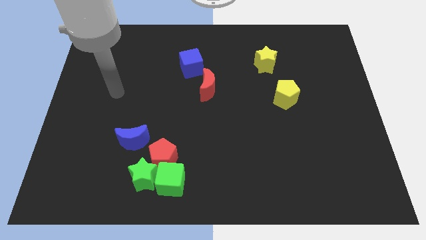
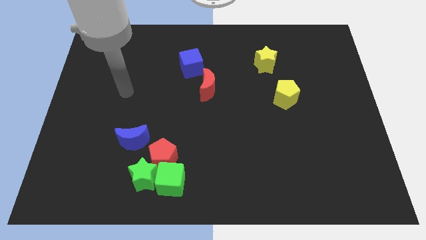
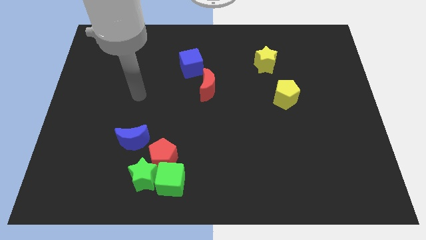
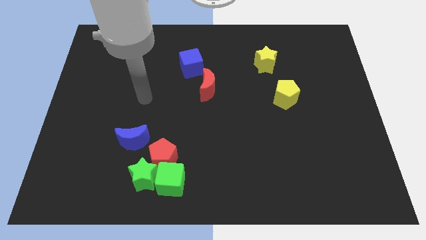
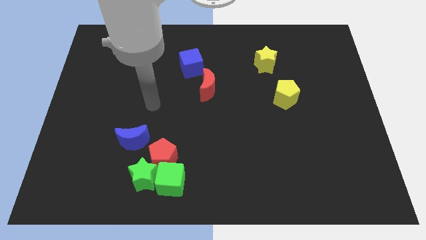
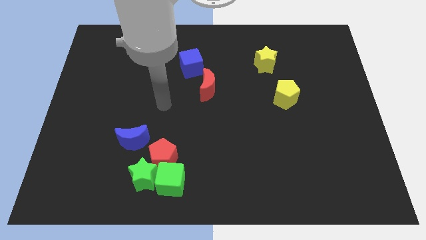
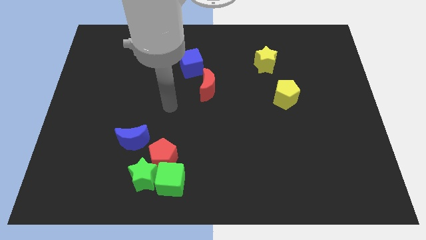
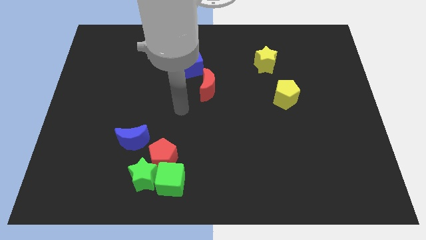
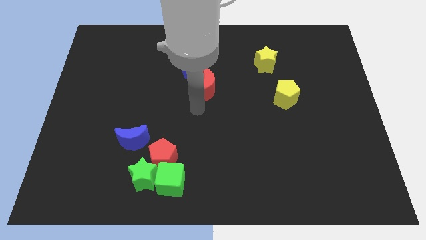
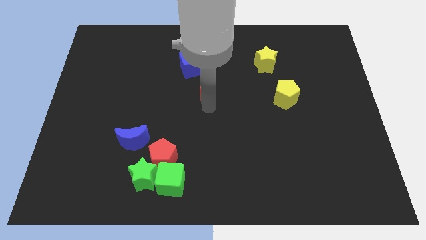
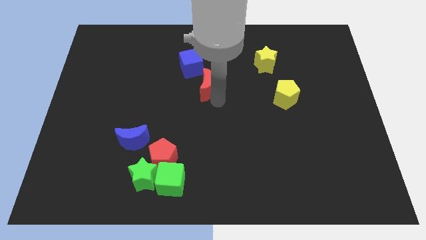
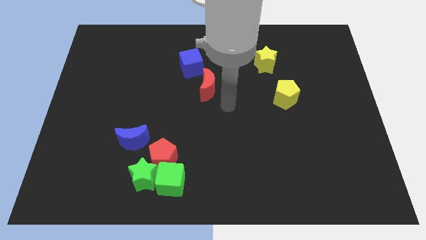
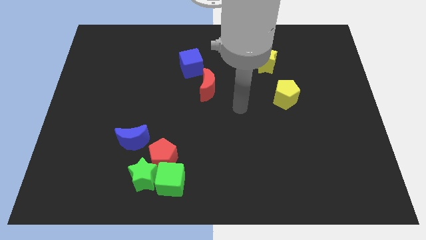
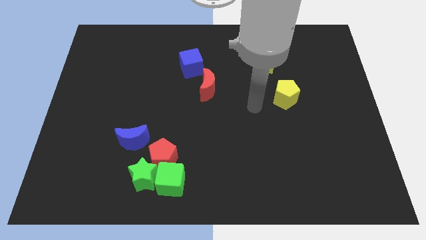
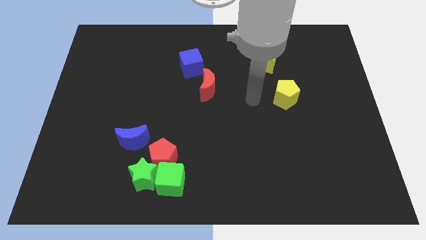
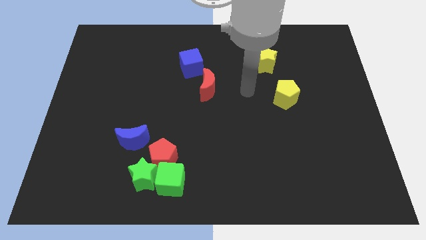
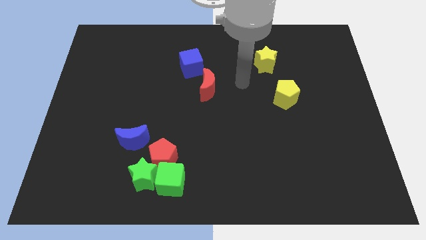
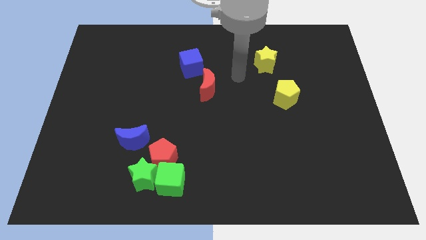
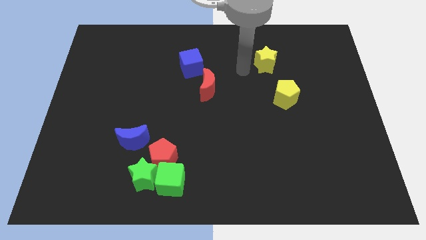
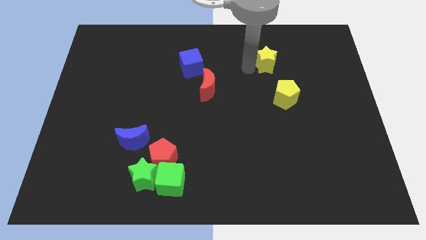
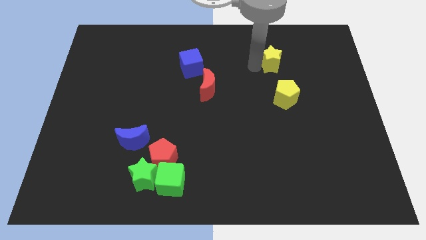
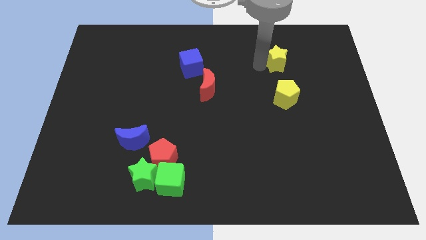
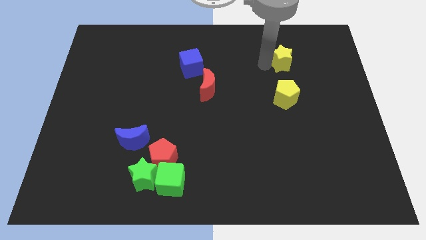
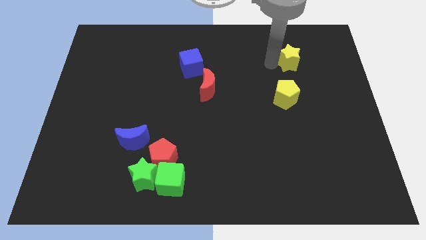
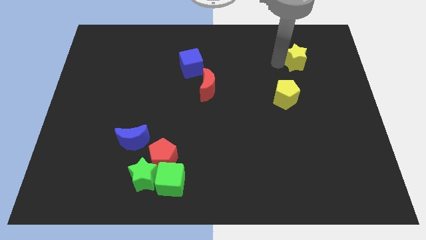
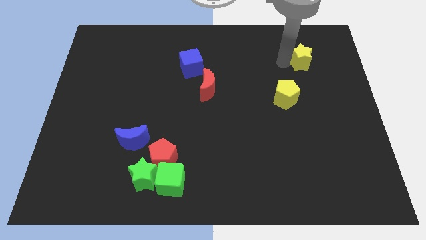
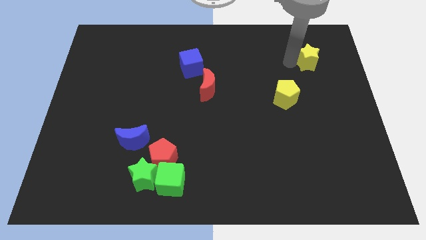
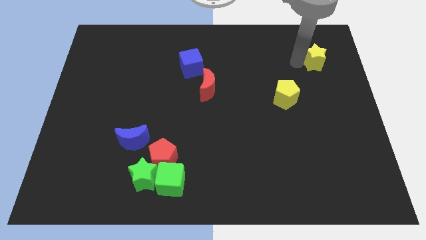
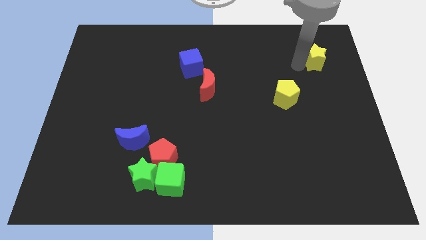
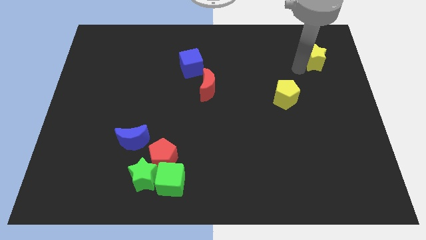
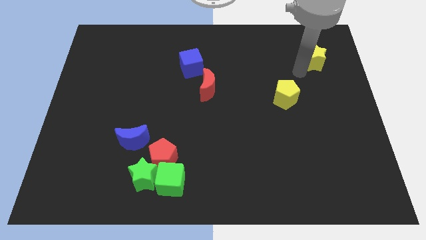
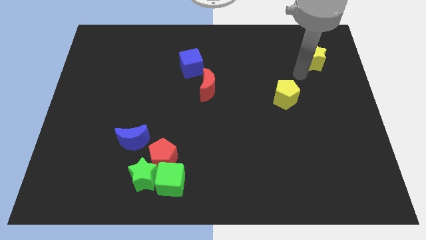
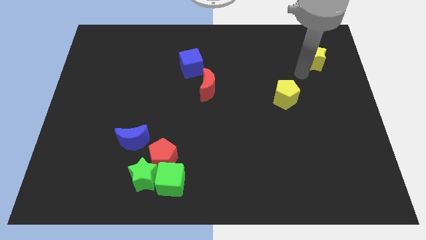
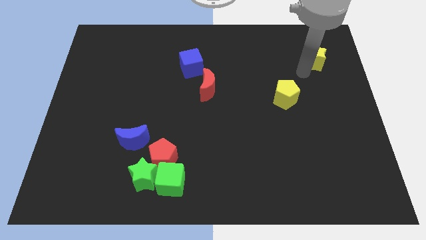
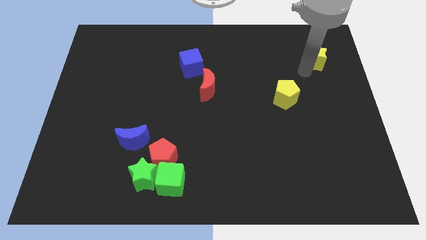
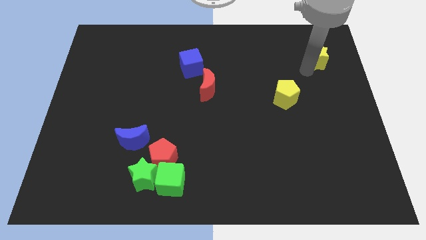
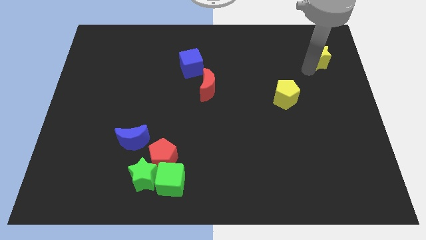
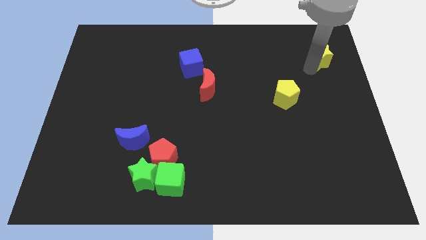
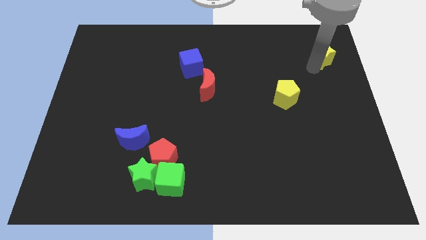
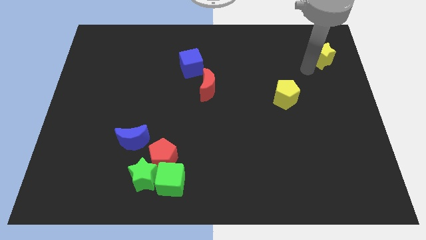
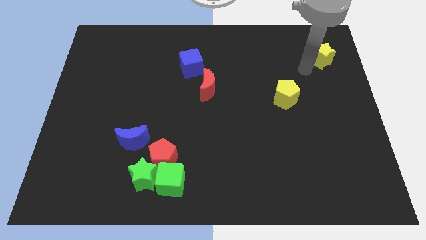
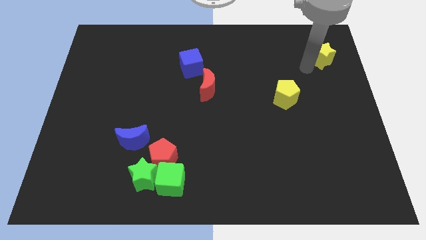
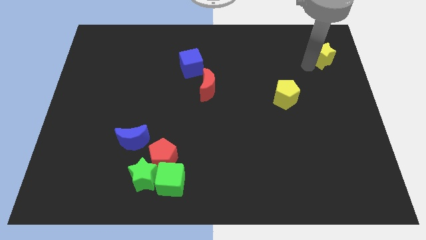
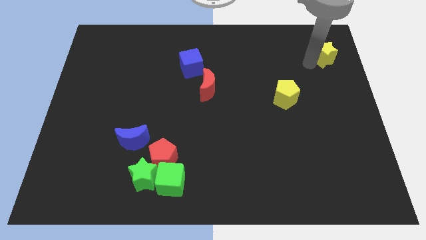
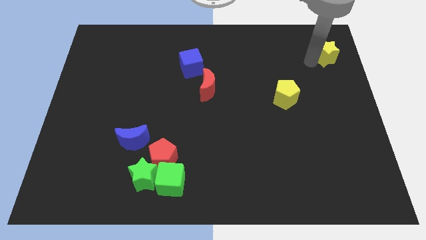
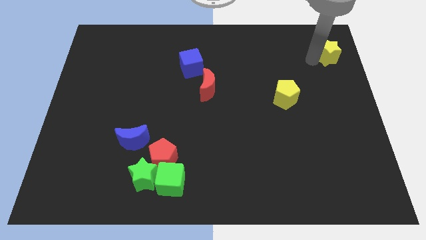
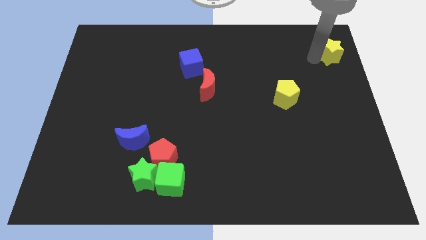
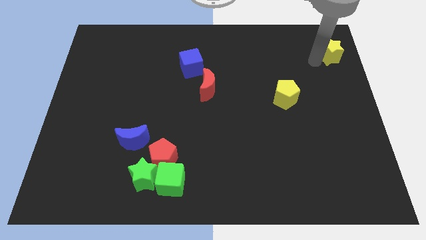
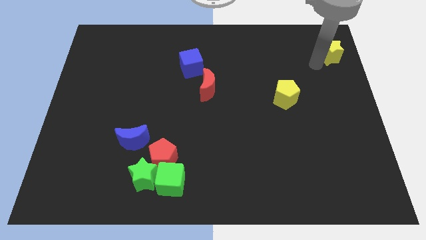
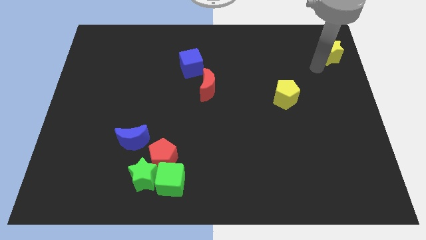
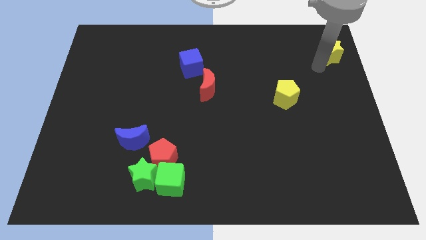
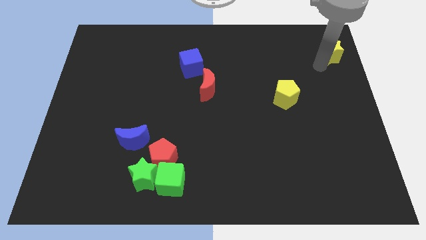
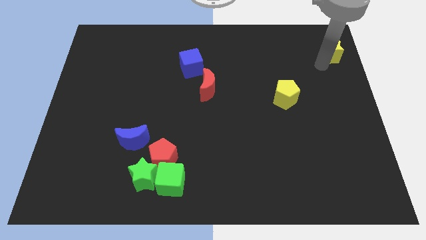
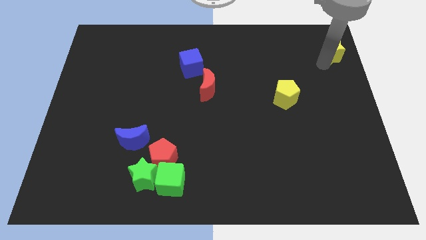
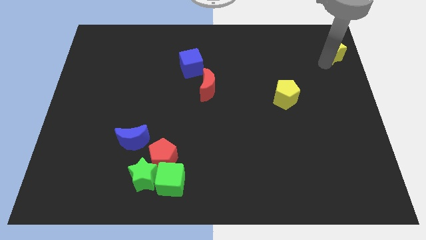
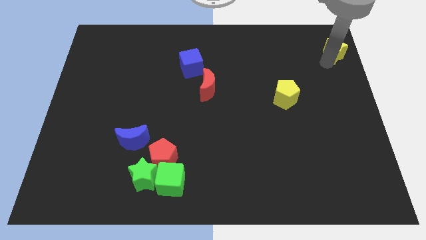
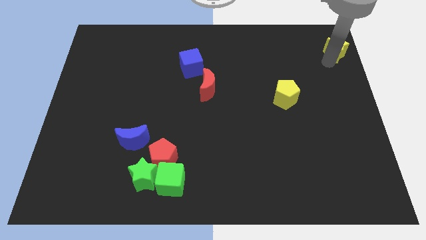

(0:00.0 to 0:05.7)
push the yellow star to the upper right corner
